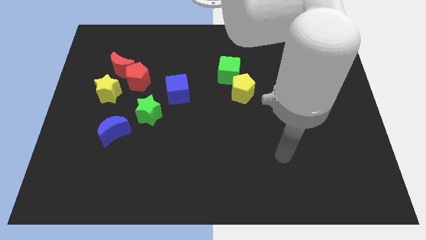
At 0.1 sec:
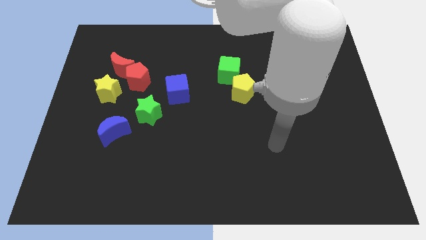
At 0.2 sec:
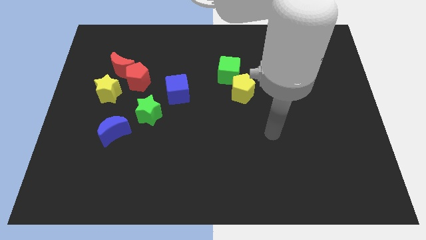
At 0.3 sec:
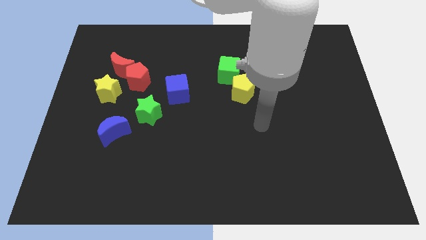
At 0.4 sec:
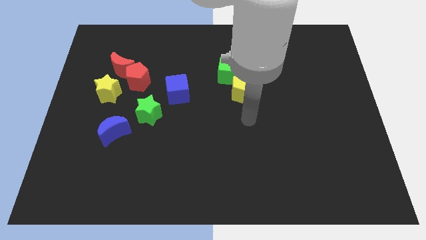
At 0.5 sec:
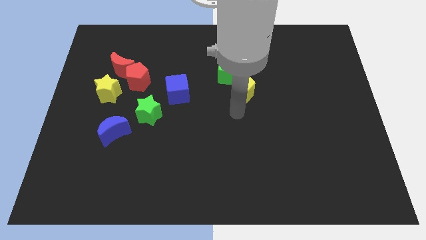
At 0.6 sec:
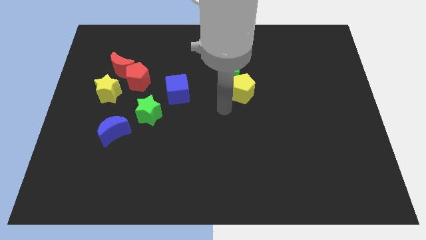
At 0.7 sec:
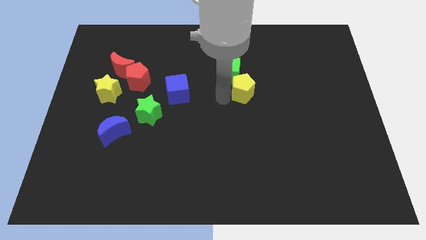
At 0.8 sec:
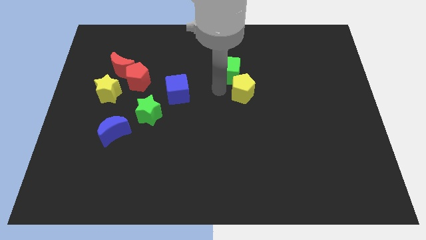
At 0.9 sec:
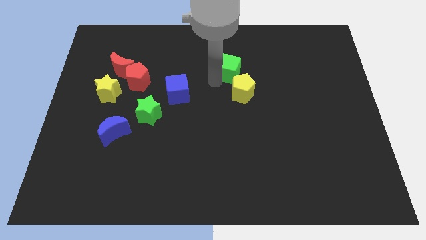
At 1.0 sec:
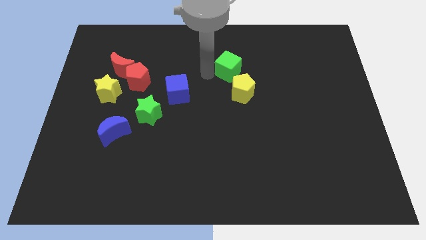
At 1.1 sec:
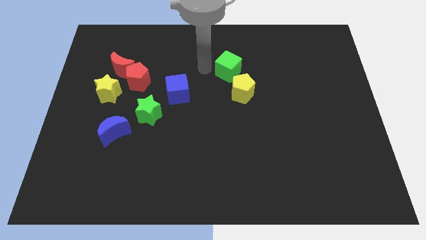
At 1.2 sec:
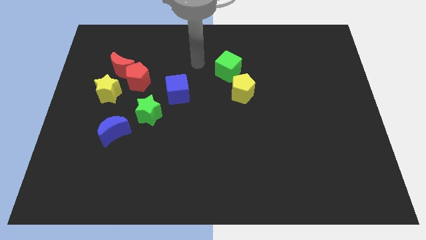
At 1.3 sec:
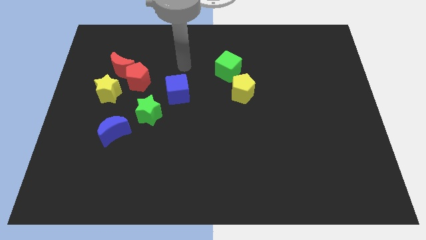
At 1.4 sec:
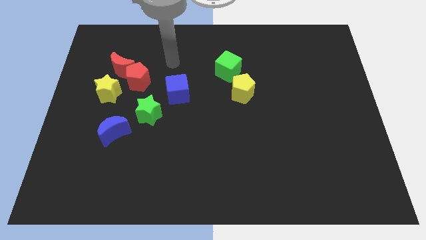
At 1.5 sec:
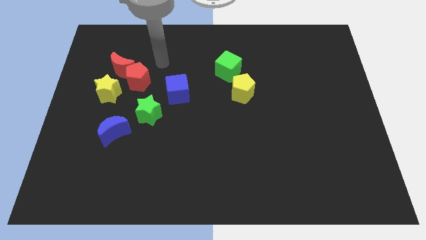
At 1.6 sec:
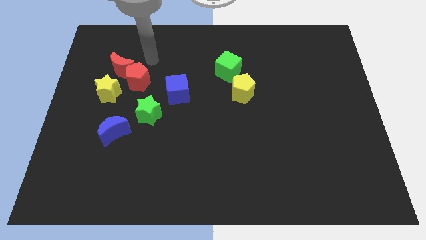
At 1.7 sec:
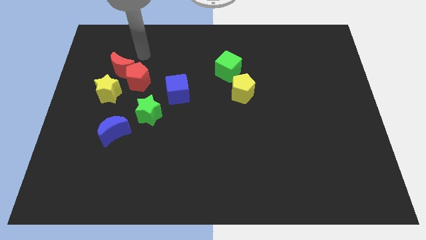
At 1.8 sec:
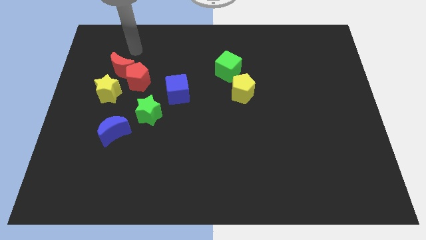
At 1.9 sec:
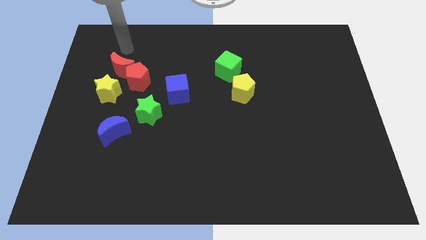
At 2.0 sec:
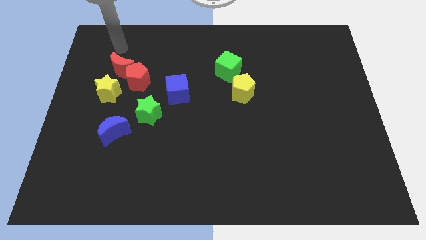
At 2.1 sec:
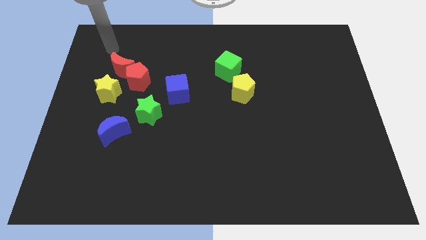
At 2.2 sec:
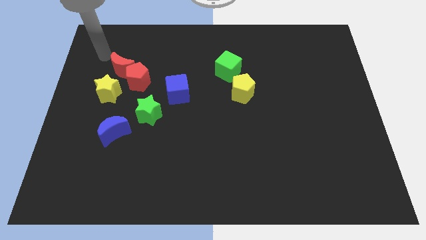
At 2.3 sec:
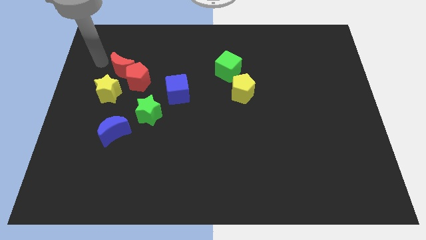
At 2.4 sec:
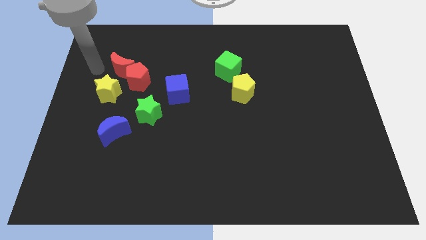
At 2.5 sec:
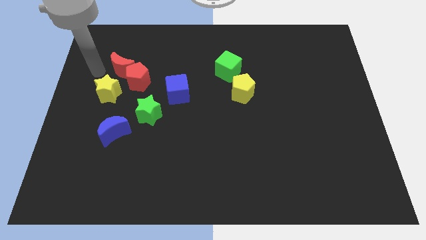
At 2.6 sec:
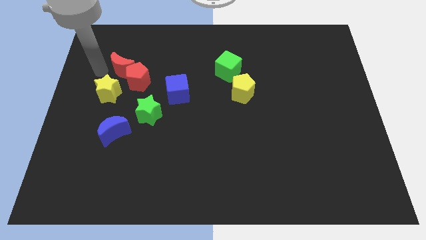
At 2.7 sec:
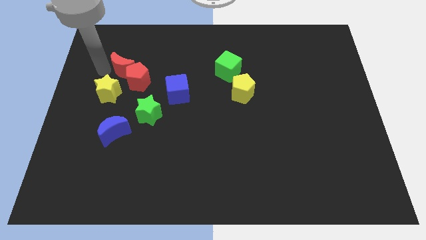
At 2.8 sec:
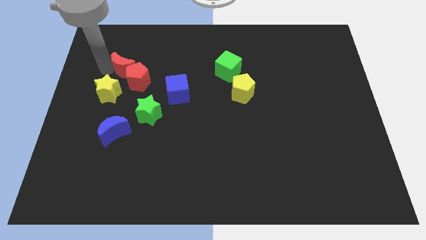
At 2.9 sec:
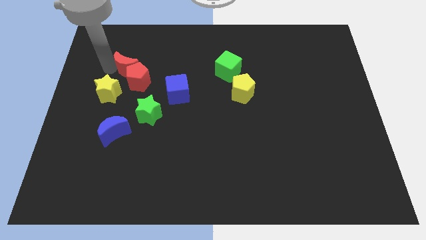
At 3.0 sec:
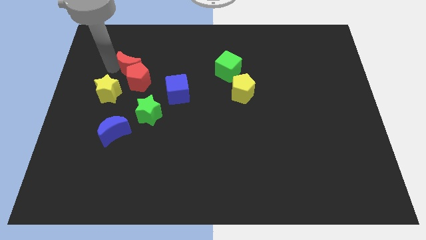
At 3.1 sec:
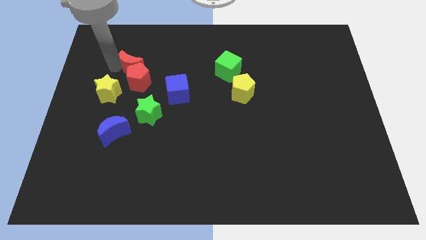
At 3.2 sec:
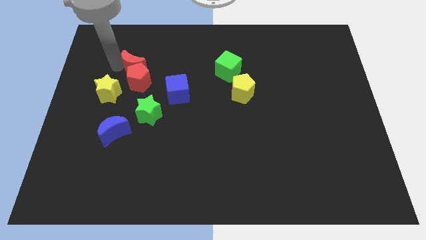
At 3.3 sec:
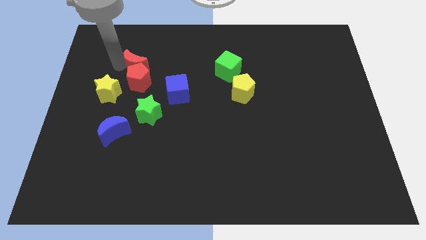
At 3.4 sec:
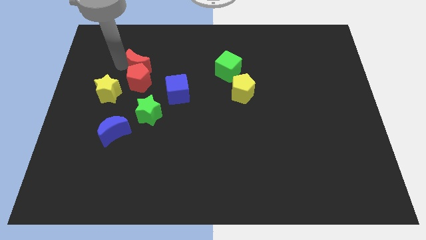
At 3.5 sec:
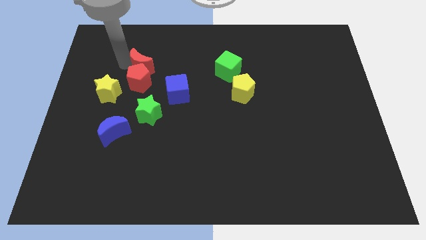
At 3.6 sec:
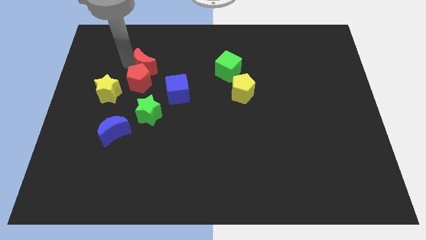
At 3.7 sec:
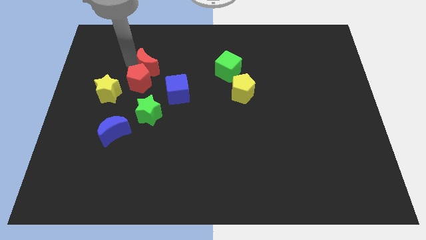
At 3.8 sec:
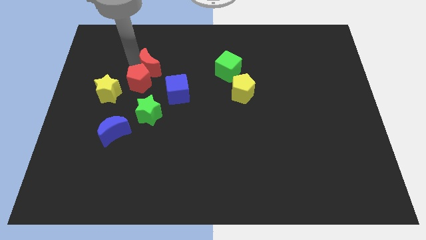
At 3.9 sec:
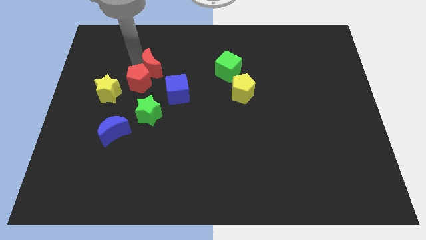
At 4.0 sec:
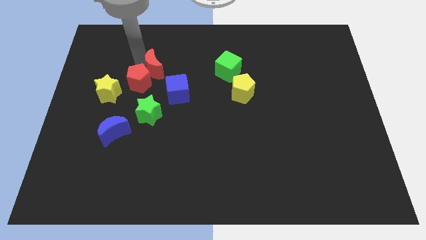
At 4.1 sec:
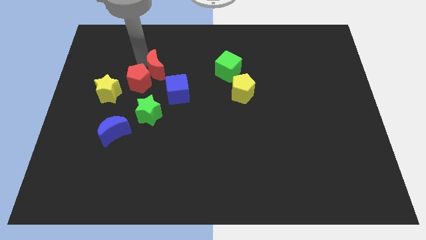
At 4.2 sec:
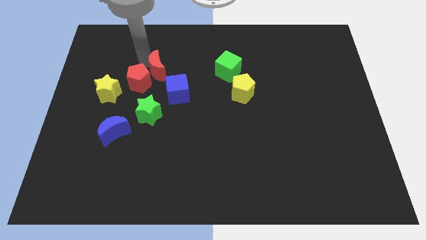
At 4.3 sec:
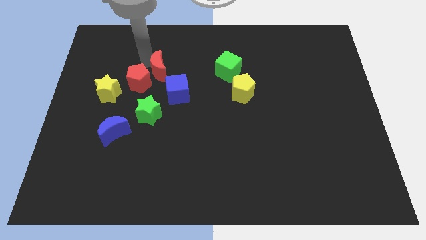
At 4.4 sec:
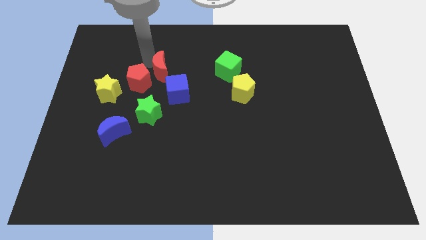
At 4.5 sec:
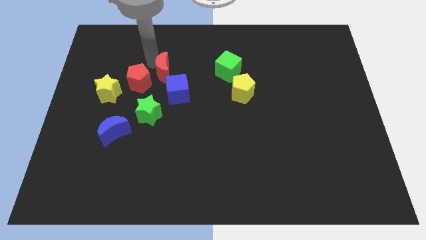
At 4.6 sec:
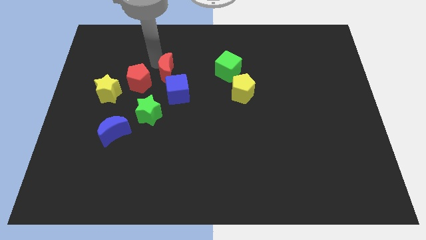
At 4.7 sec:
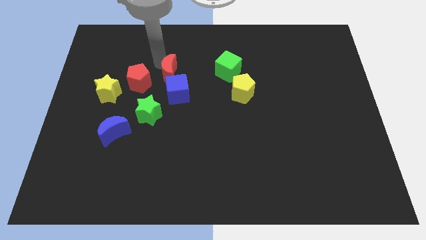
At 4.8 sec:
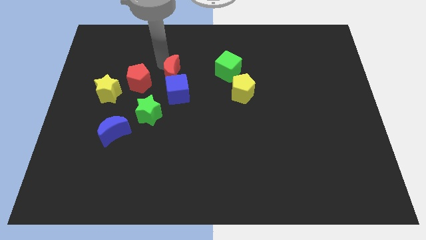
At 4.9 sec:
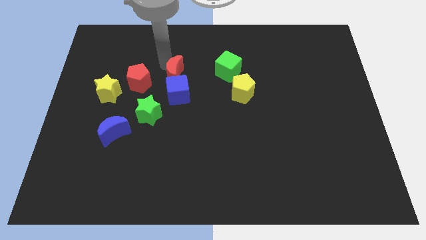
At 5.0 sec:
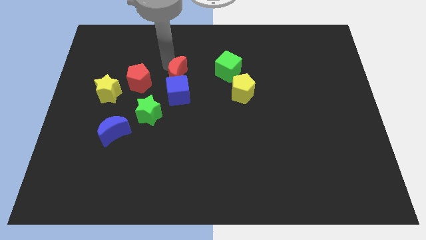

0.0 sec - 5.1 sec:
move the red moon to the middle

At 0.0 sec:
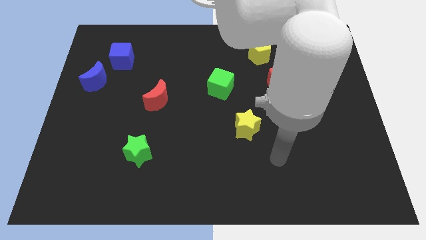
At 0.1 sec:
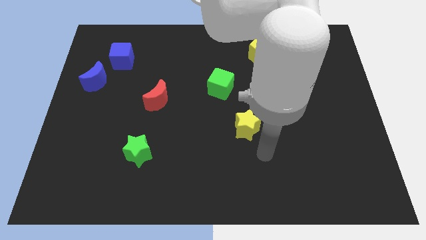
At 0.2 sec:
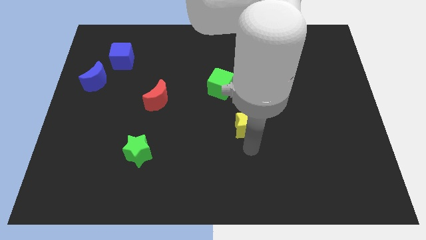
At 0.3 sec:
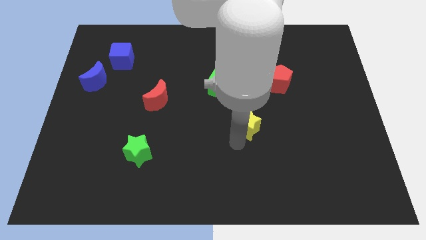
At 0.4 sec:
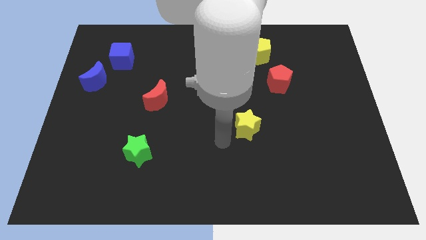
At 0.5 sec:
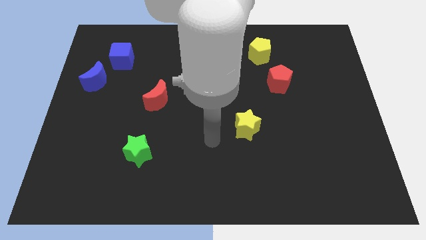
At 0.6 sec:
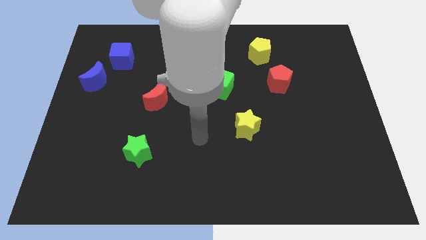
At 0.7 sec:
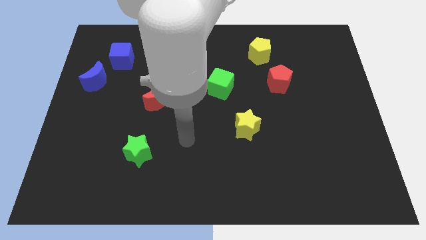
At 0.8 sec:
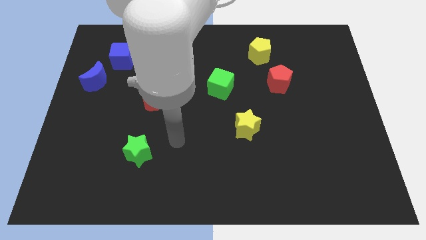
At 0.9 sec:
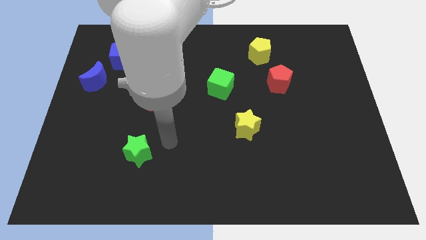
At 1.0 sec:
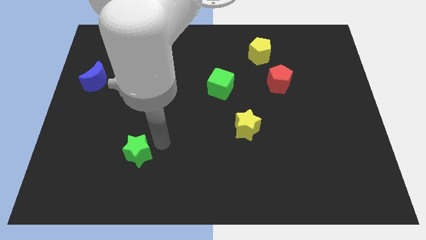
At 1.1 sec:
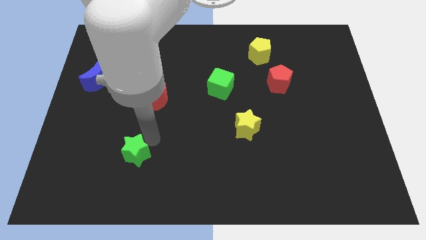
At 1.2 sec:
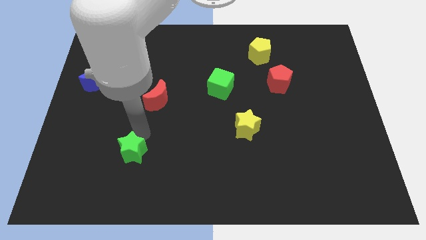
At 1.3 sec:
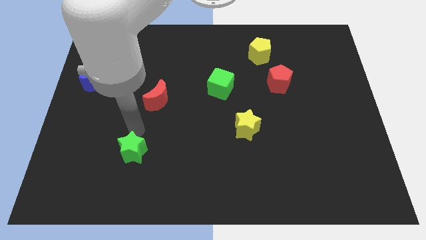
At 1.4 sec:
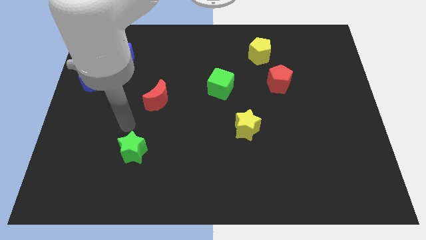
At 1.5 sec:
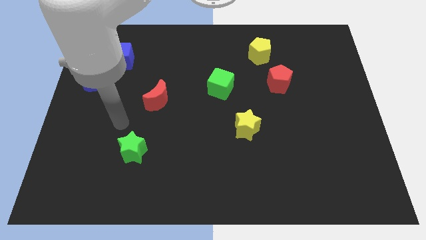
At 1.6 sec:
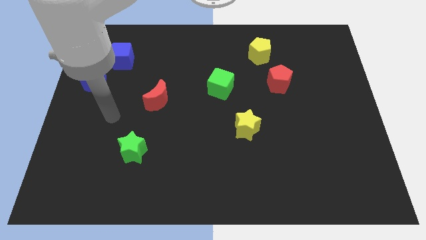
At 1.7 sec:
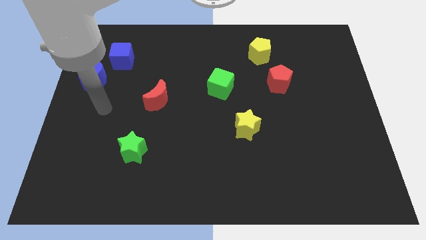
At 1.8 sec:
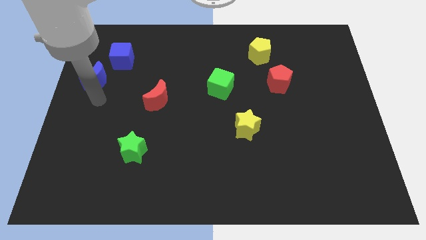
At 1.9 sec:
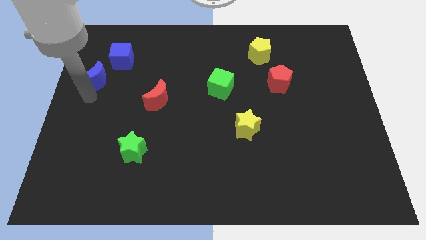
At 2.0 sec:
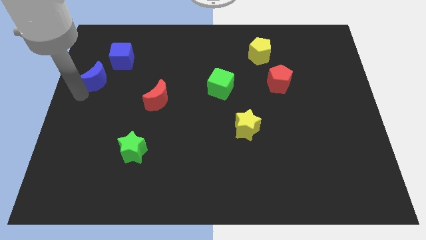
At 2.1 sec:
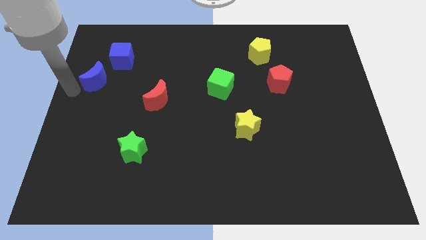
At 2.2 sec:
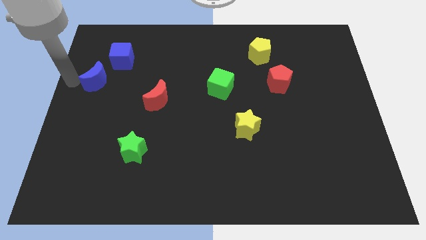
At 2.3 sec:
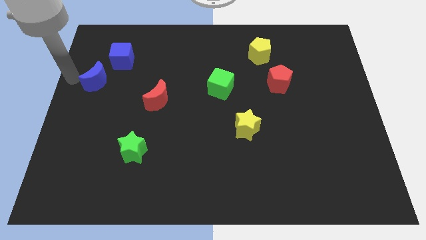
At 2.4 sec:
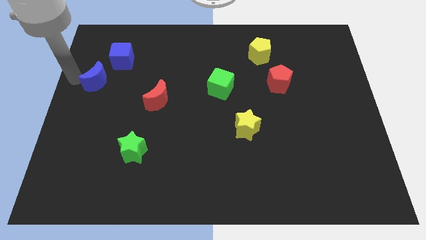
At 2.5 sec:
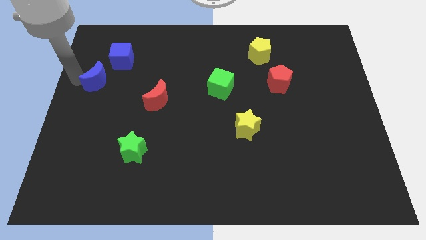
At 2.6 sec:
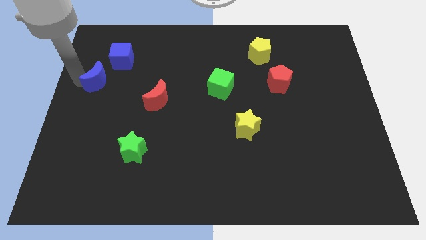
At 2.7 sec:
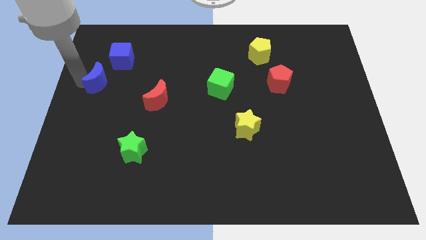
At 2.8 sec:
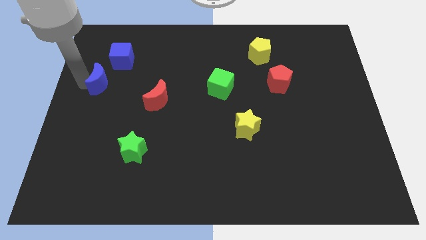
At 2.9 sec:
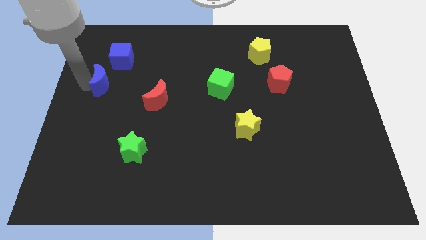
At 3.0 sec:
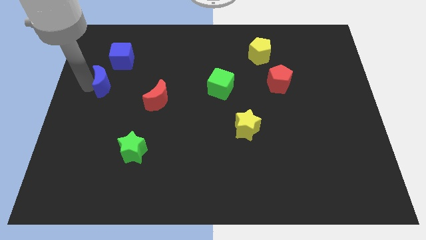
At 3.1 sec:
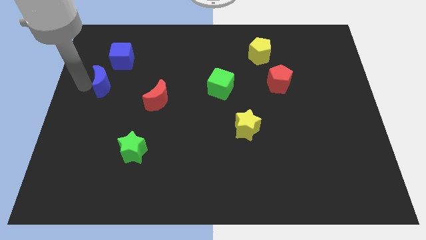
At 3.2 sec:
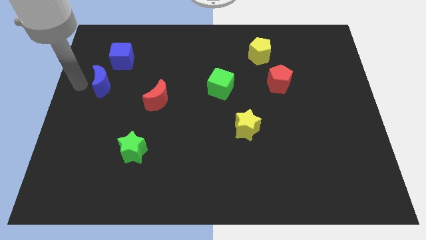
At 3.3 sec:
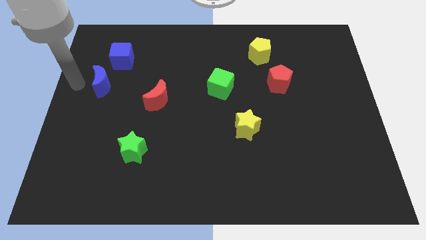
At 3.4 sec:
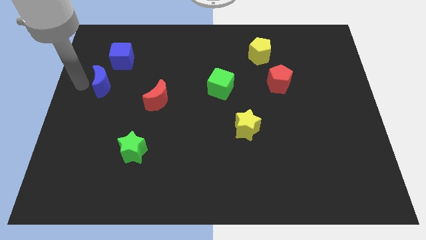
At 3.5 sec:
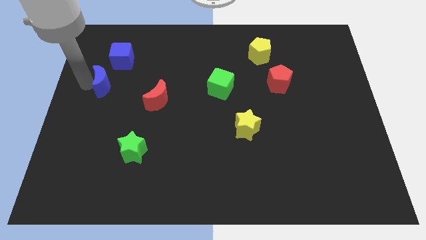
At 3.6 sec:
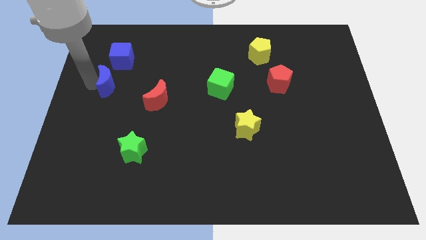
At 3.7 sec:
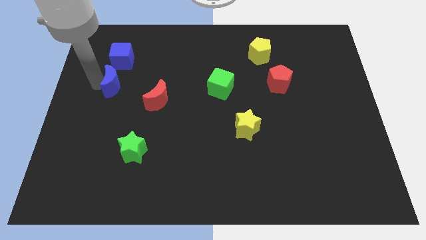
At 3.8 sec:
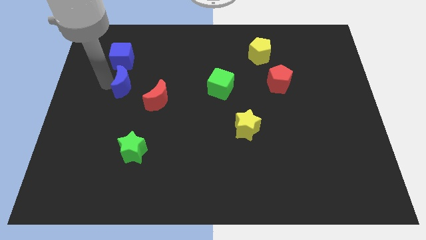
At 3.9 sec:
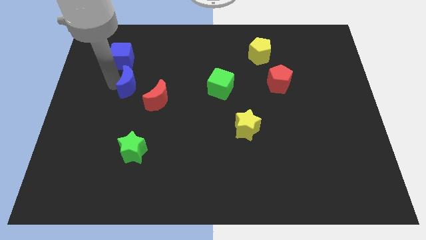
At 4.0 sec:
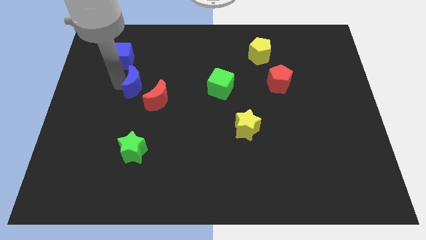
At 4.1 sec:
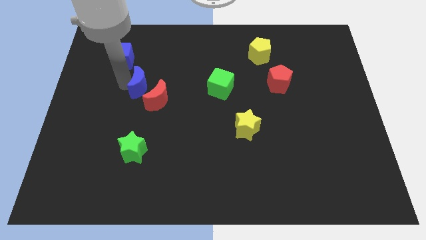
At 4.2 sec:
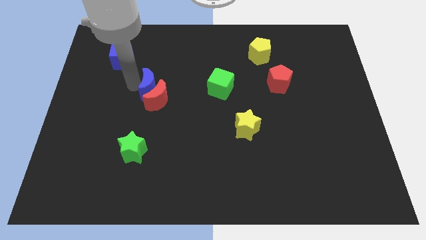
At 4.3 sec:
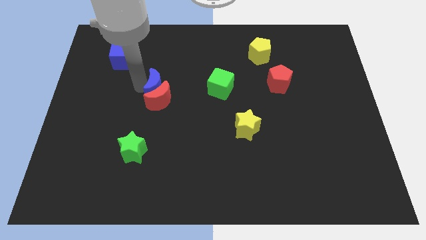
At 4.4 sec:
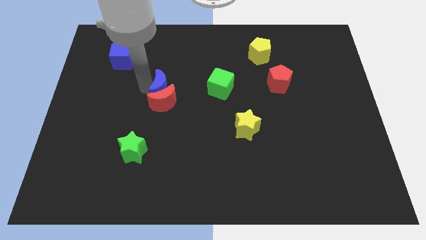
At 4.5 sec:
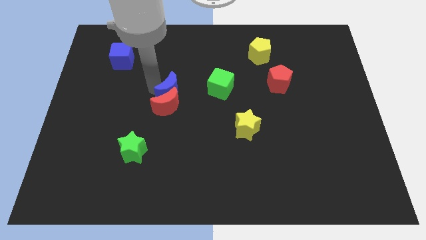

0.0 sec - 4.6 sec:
move the blue moon to the middle
